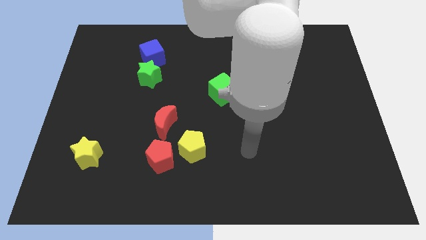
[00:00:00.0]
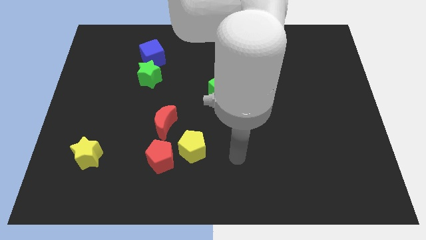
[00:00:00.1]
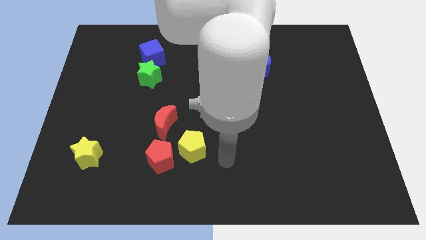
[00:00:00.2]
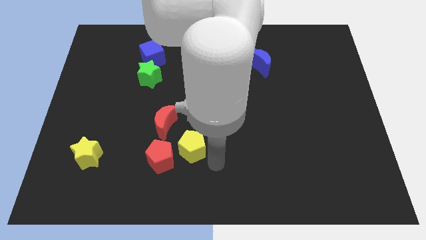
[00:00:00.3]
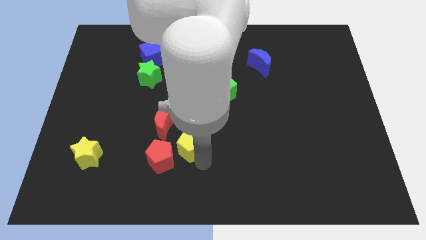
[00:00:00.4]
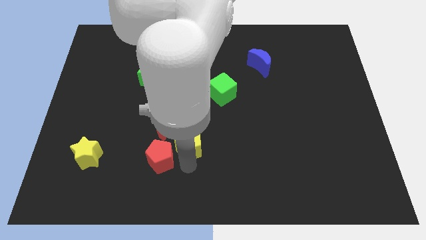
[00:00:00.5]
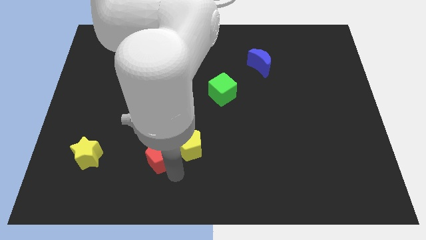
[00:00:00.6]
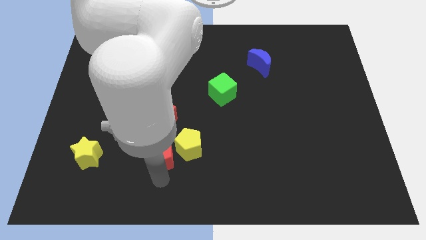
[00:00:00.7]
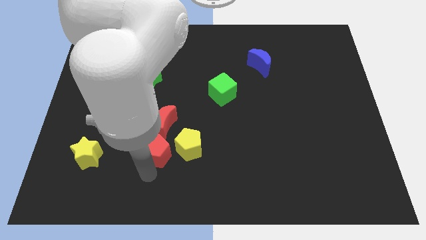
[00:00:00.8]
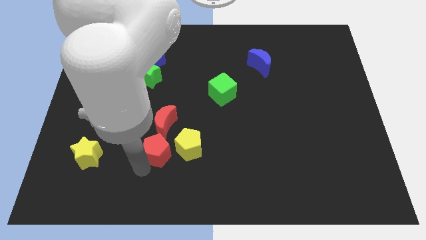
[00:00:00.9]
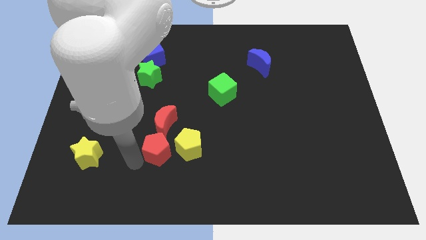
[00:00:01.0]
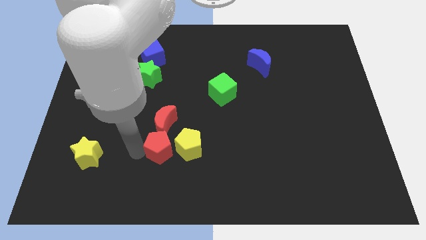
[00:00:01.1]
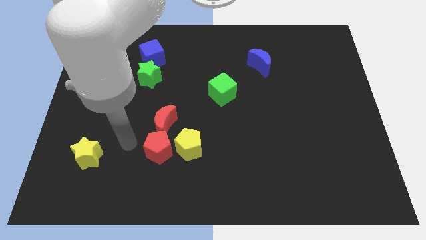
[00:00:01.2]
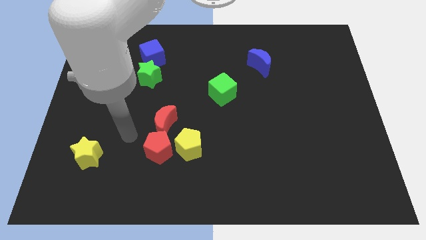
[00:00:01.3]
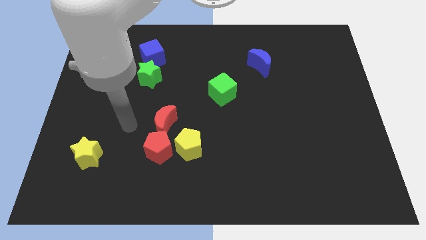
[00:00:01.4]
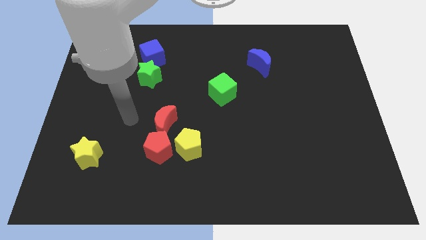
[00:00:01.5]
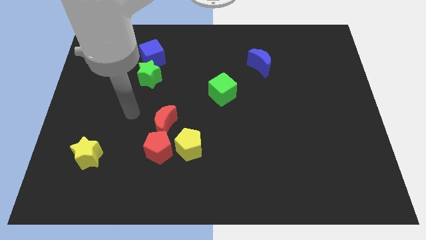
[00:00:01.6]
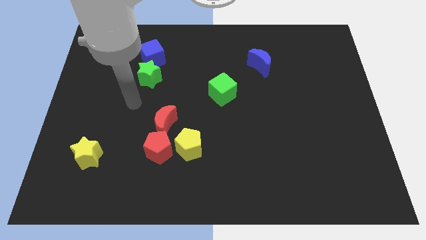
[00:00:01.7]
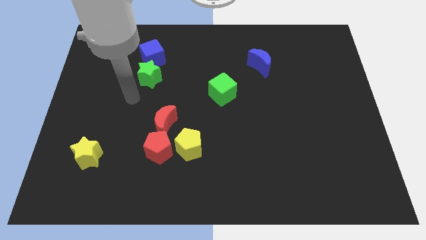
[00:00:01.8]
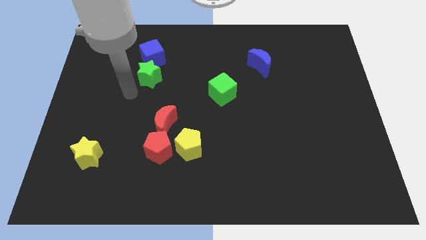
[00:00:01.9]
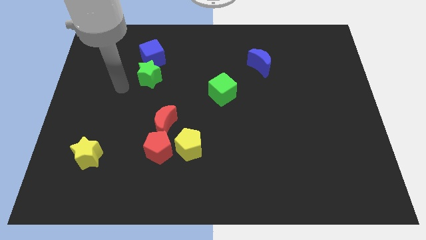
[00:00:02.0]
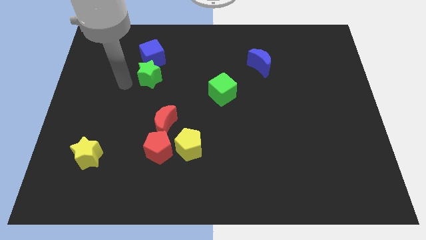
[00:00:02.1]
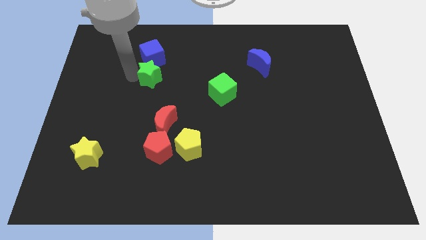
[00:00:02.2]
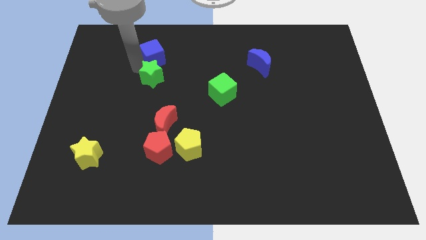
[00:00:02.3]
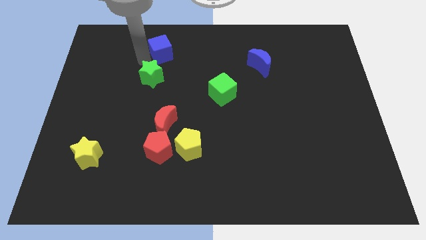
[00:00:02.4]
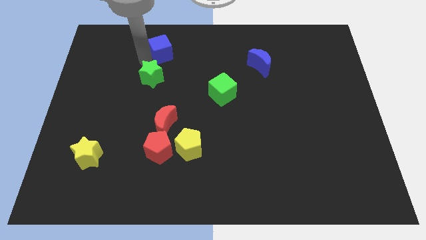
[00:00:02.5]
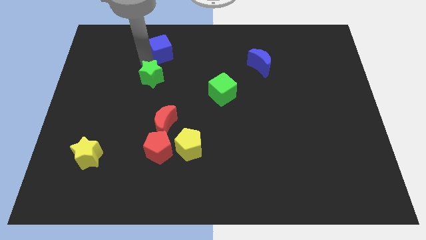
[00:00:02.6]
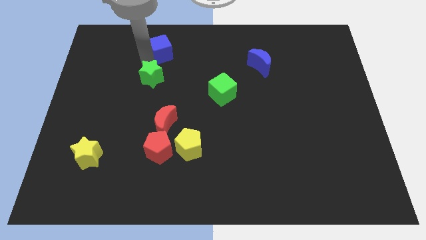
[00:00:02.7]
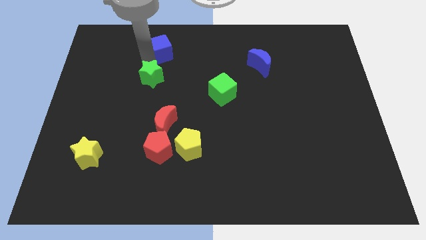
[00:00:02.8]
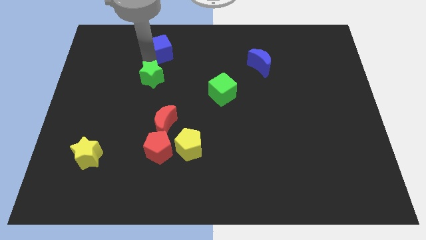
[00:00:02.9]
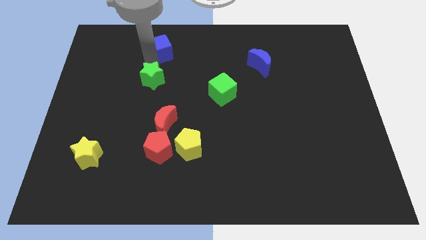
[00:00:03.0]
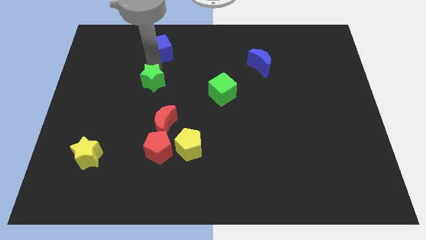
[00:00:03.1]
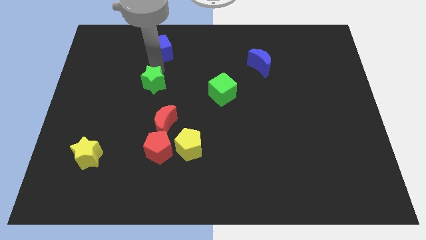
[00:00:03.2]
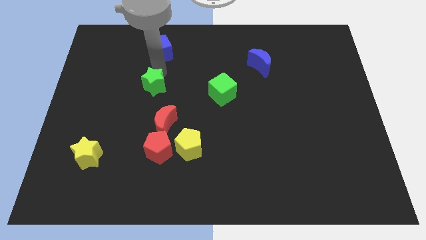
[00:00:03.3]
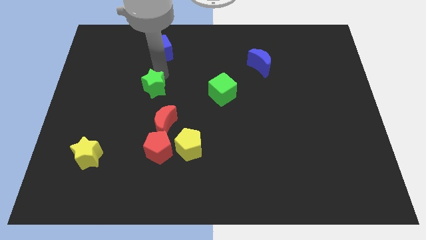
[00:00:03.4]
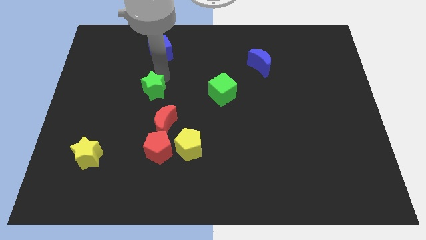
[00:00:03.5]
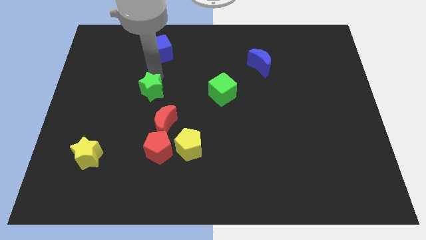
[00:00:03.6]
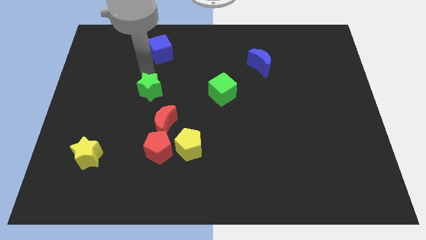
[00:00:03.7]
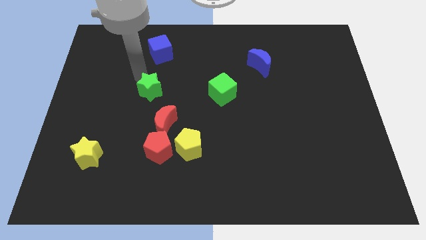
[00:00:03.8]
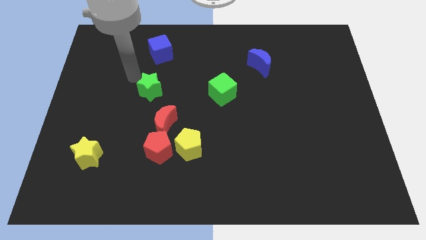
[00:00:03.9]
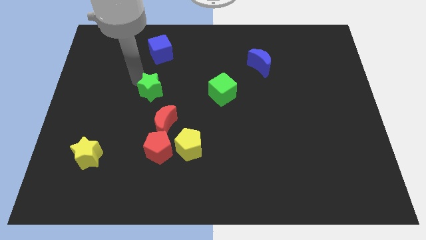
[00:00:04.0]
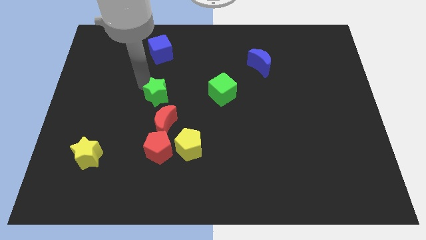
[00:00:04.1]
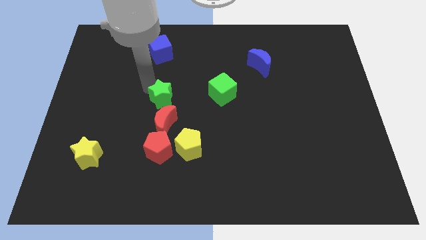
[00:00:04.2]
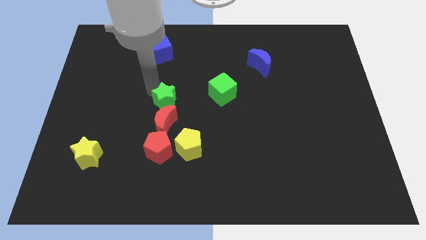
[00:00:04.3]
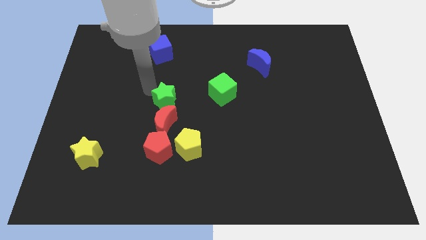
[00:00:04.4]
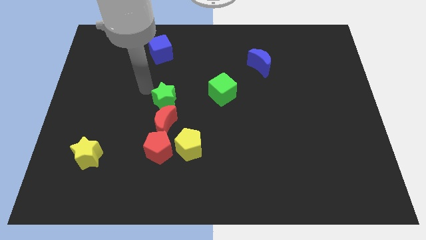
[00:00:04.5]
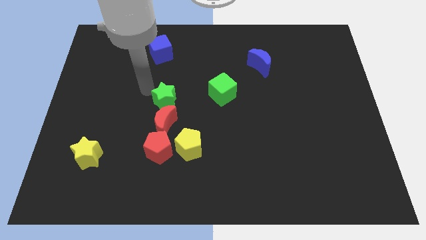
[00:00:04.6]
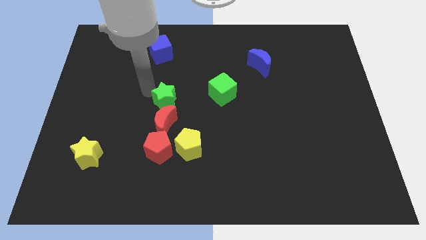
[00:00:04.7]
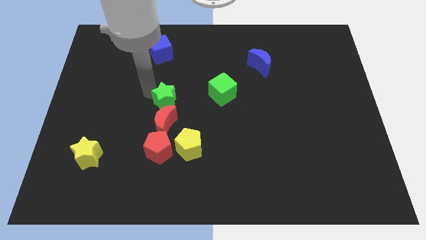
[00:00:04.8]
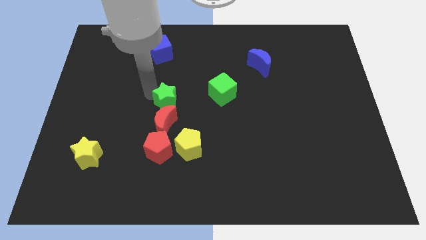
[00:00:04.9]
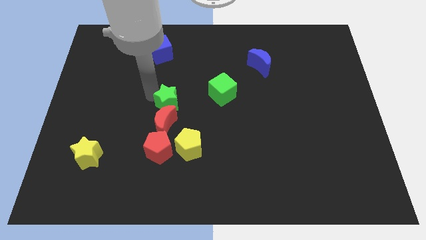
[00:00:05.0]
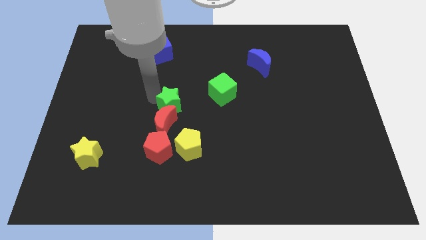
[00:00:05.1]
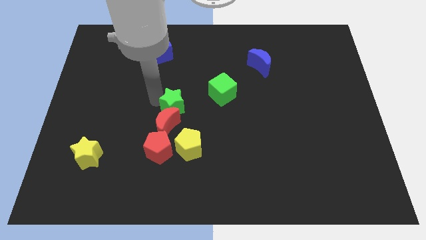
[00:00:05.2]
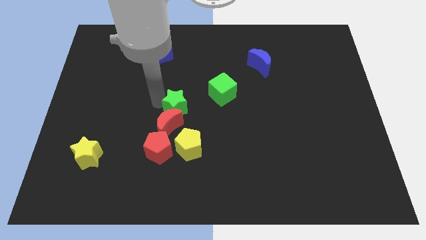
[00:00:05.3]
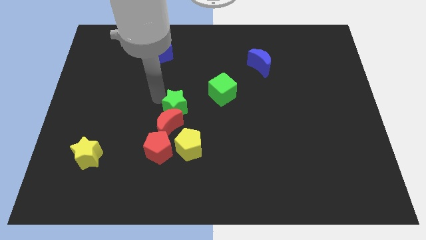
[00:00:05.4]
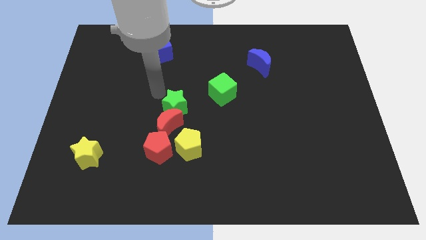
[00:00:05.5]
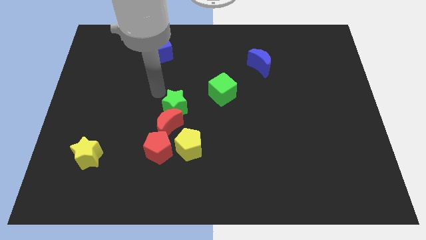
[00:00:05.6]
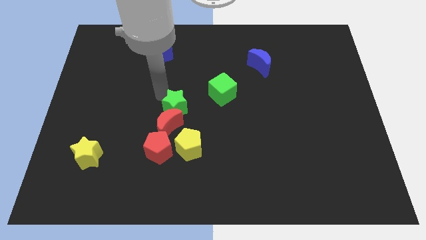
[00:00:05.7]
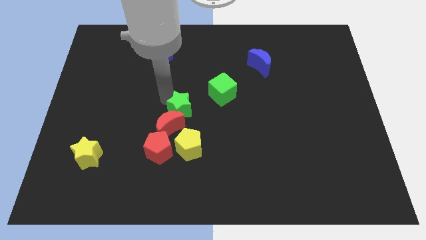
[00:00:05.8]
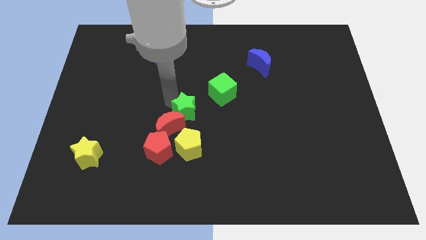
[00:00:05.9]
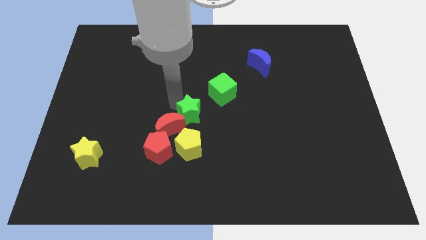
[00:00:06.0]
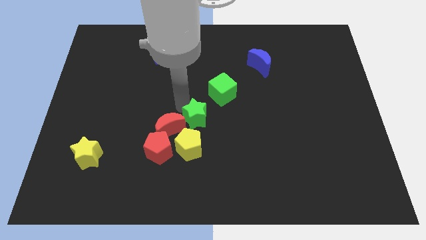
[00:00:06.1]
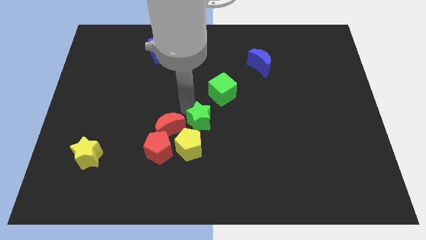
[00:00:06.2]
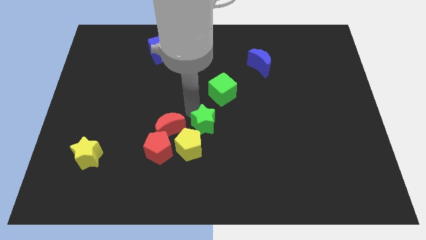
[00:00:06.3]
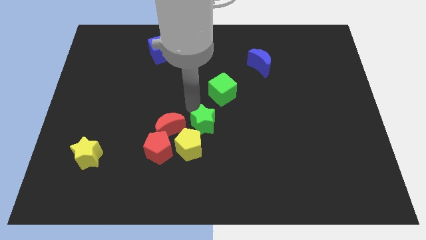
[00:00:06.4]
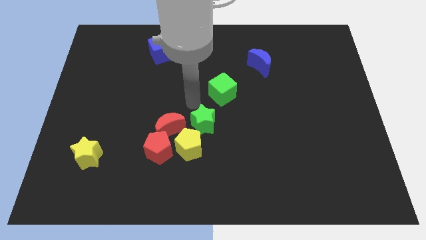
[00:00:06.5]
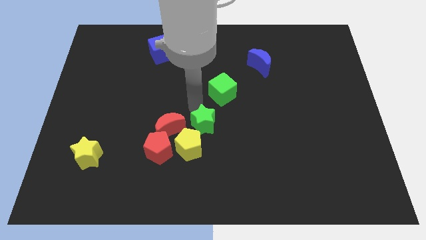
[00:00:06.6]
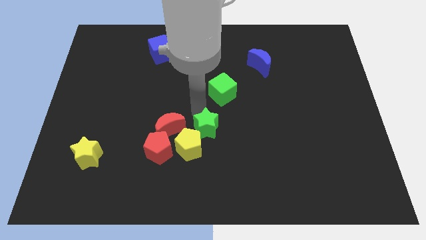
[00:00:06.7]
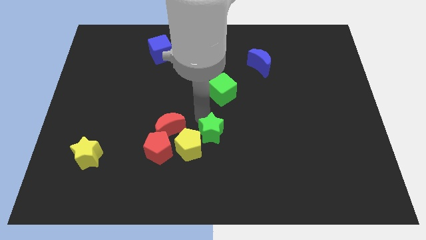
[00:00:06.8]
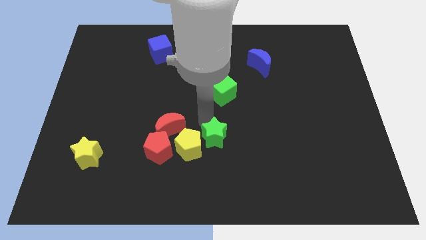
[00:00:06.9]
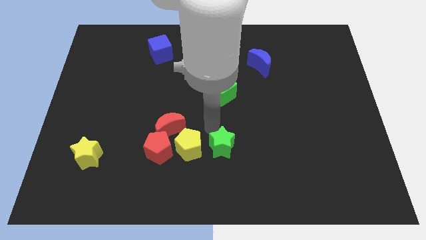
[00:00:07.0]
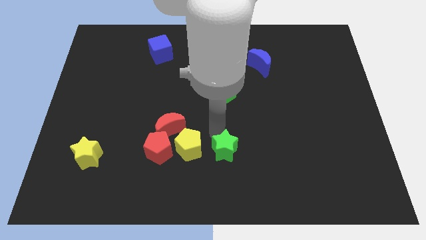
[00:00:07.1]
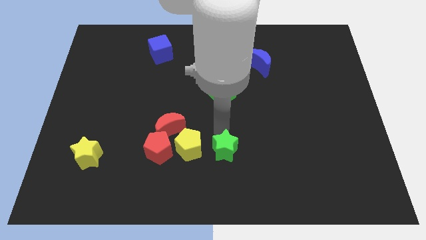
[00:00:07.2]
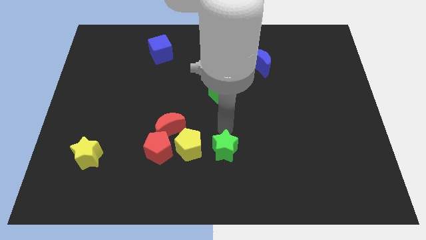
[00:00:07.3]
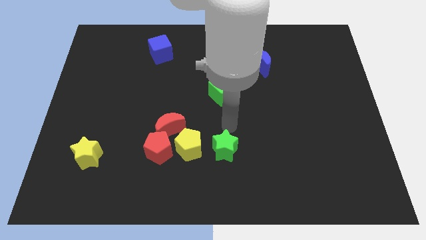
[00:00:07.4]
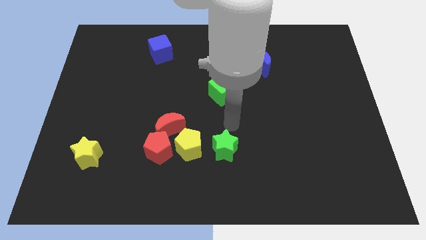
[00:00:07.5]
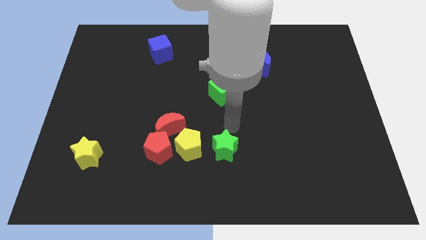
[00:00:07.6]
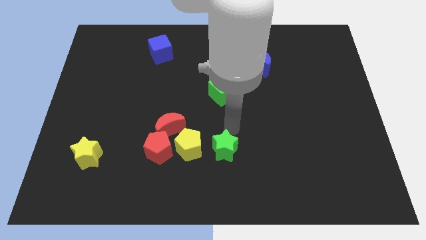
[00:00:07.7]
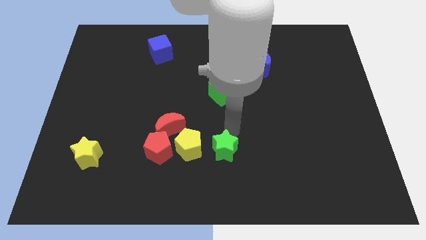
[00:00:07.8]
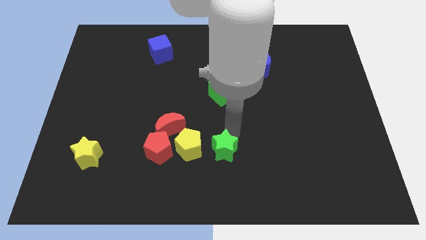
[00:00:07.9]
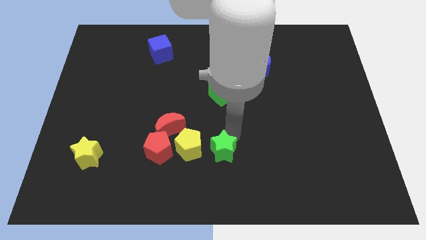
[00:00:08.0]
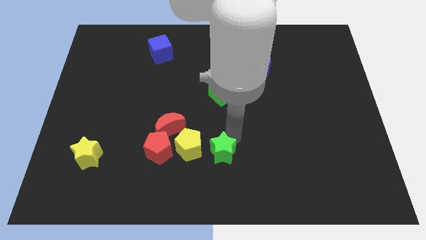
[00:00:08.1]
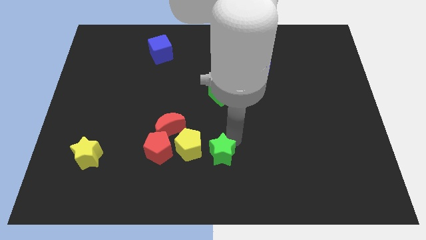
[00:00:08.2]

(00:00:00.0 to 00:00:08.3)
push the green star to the bottom side
